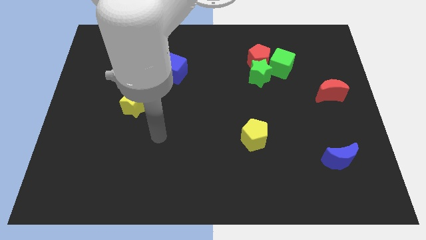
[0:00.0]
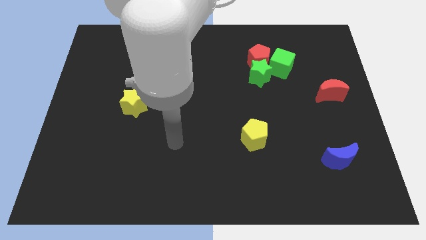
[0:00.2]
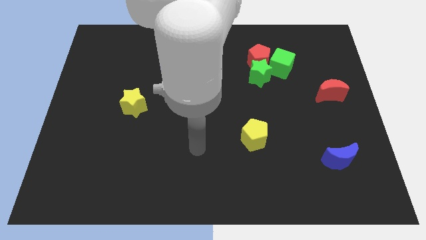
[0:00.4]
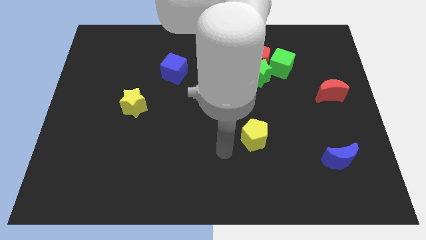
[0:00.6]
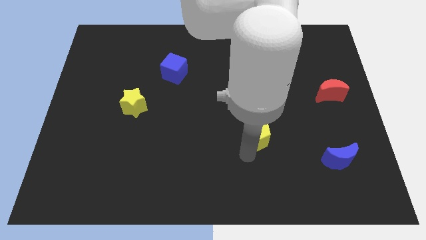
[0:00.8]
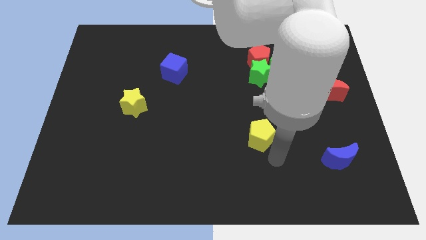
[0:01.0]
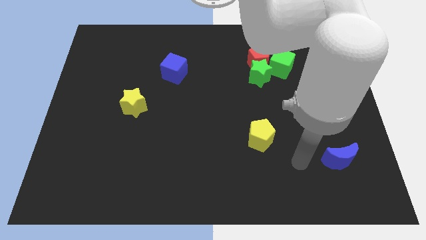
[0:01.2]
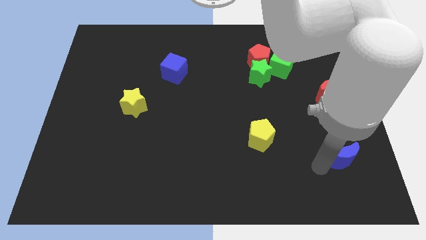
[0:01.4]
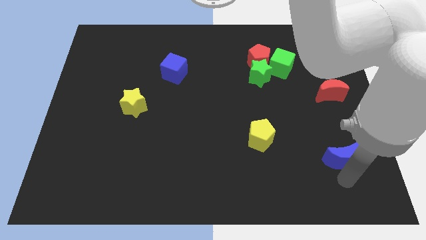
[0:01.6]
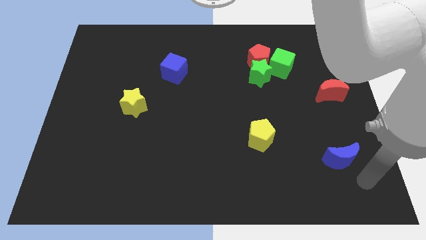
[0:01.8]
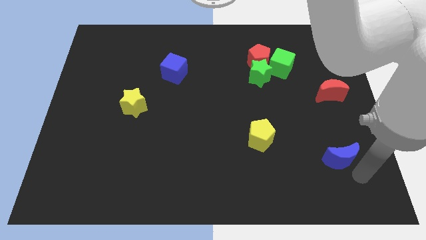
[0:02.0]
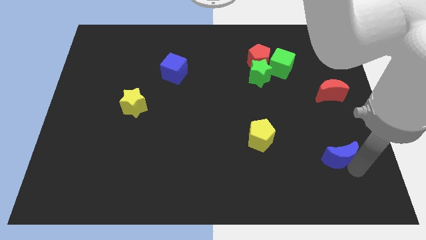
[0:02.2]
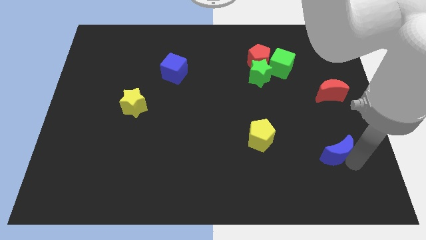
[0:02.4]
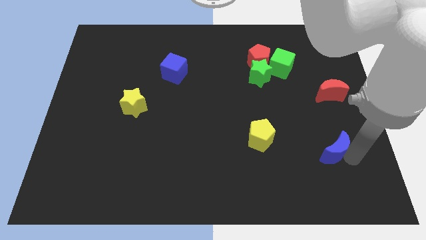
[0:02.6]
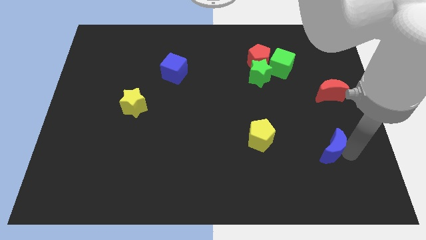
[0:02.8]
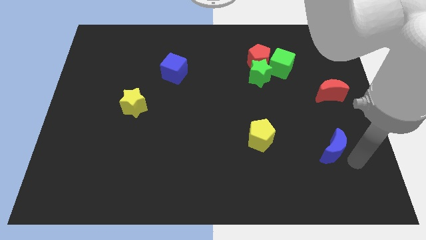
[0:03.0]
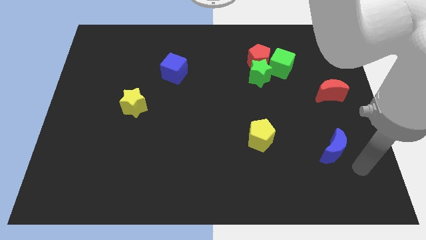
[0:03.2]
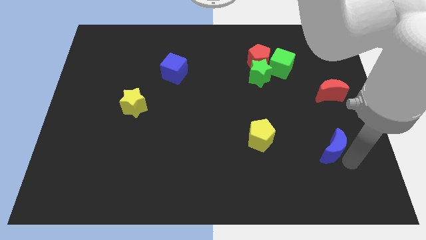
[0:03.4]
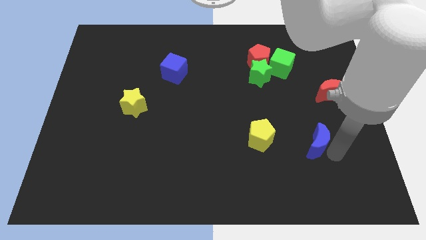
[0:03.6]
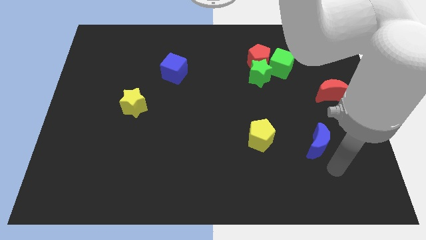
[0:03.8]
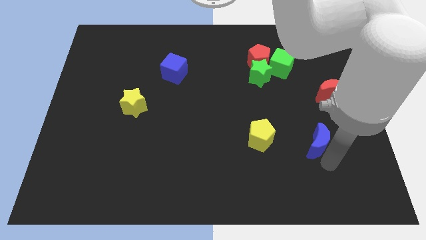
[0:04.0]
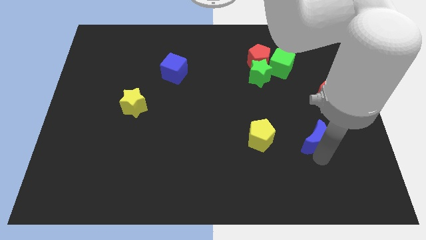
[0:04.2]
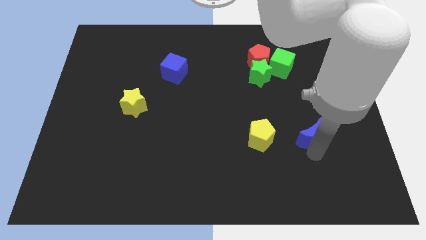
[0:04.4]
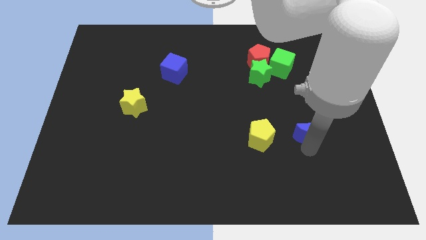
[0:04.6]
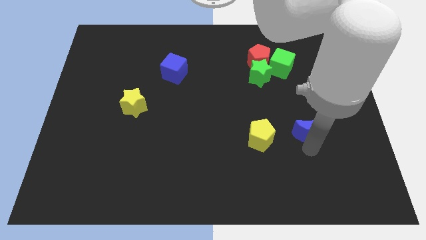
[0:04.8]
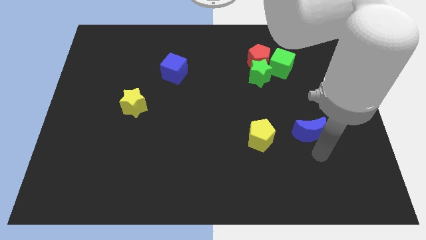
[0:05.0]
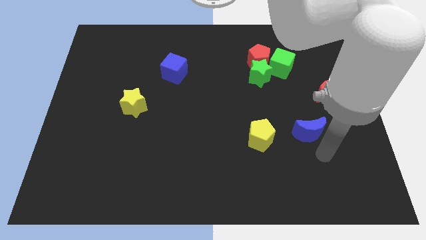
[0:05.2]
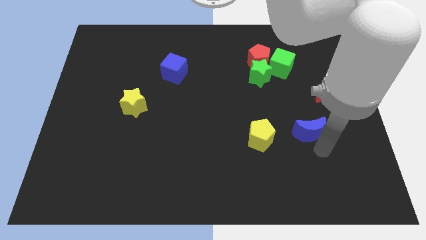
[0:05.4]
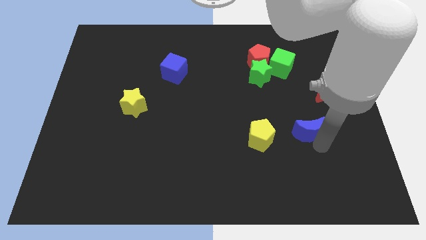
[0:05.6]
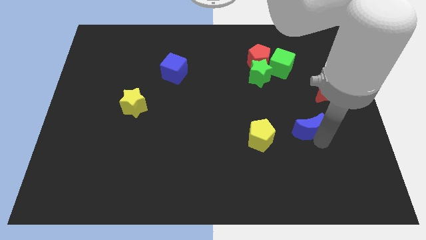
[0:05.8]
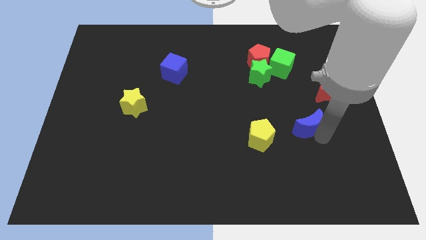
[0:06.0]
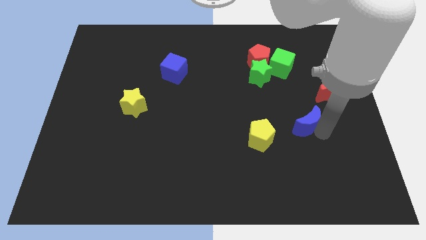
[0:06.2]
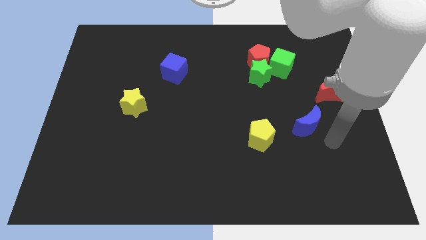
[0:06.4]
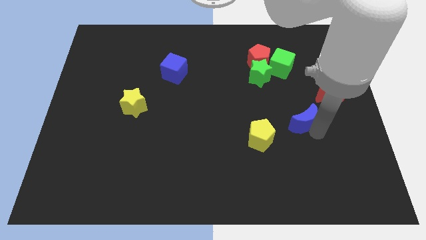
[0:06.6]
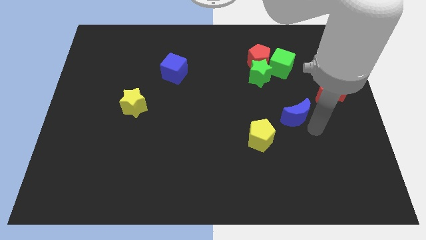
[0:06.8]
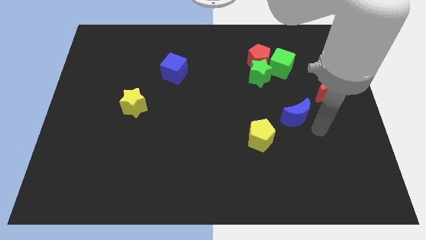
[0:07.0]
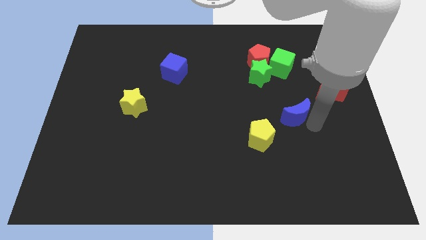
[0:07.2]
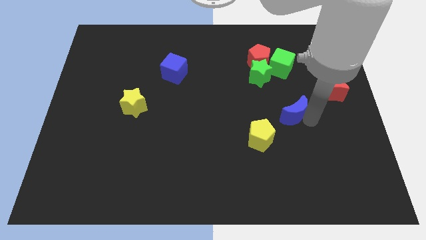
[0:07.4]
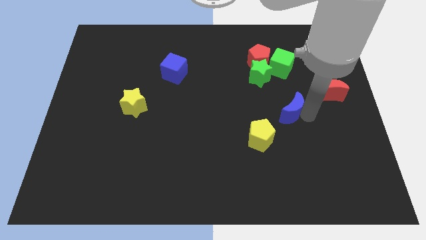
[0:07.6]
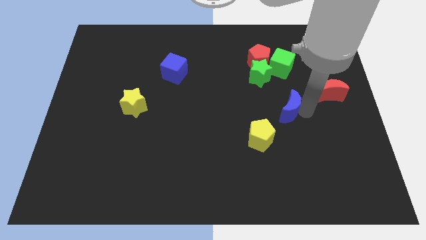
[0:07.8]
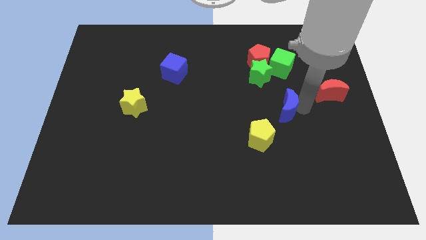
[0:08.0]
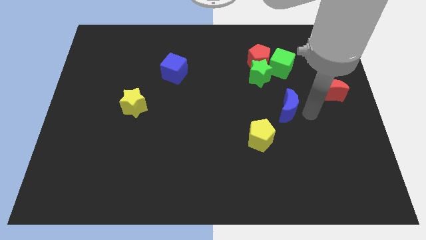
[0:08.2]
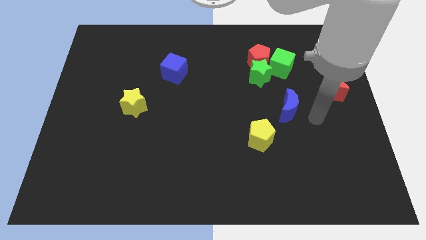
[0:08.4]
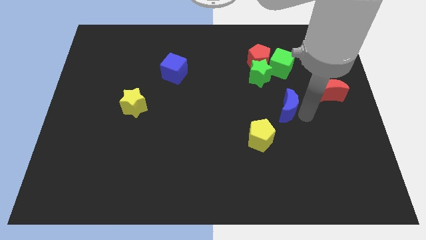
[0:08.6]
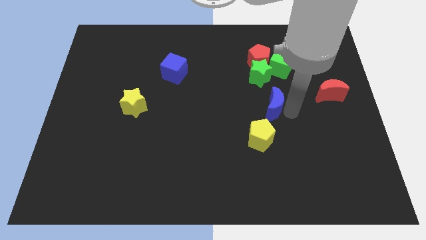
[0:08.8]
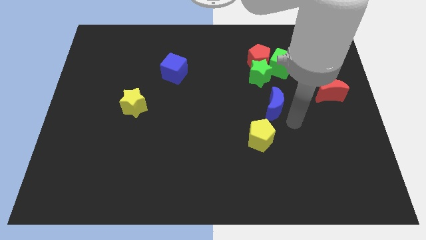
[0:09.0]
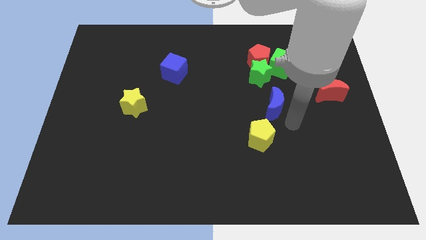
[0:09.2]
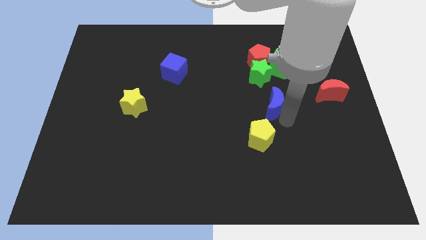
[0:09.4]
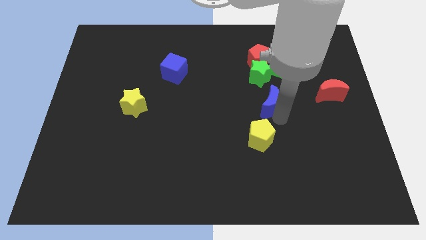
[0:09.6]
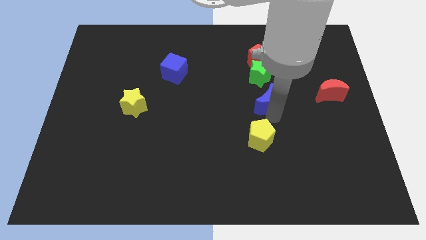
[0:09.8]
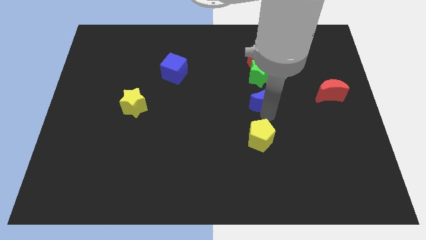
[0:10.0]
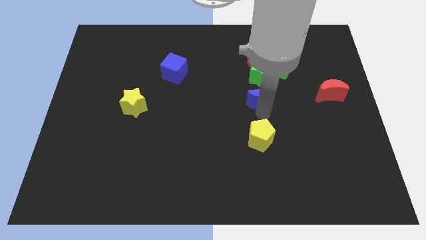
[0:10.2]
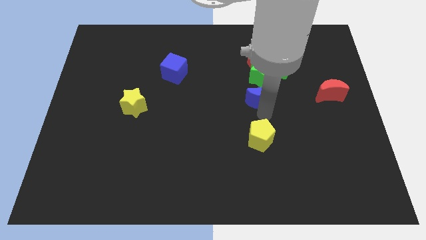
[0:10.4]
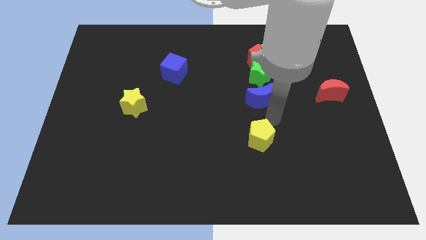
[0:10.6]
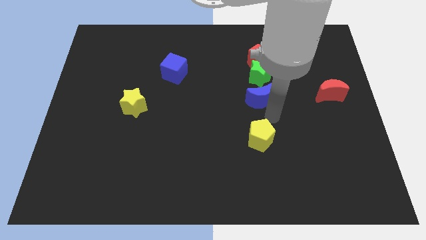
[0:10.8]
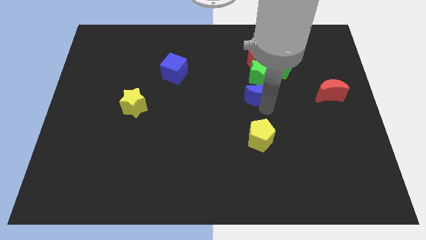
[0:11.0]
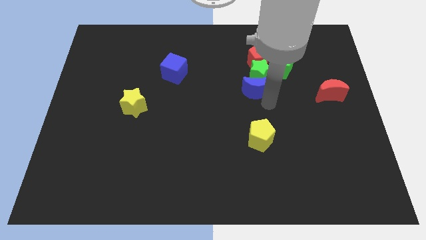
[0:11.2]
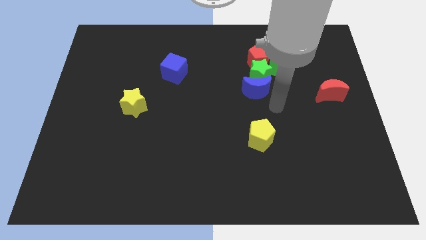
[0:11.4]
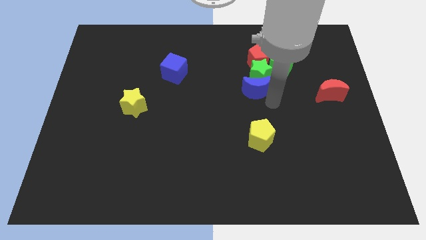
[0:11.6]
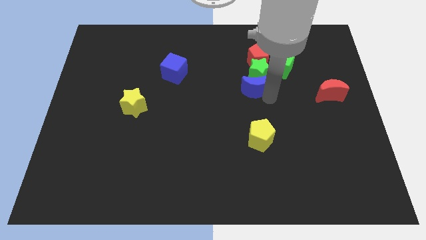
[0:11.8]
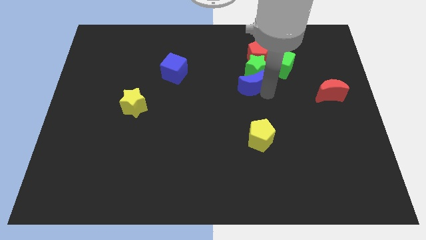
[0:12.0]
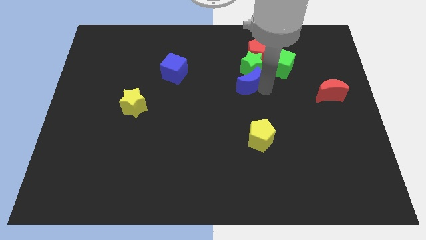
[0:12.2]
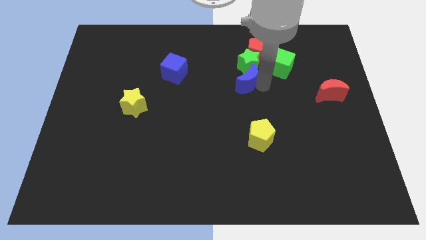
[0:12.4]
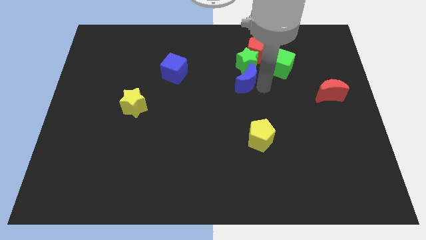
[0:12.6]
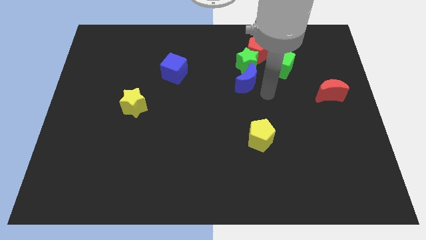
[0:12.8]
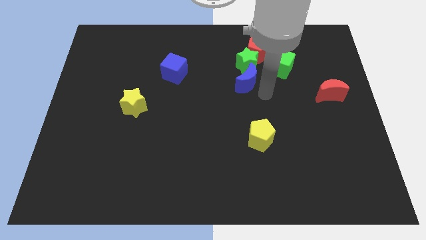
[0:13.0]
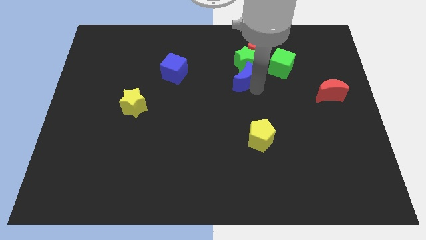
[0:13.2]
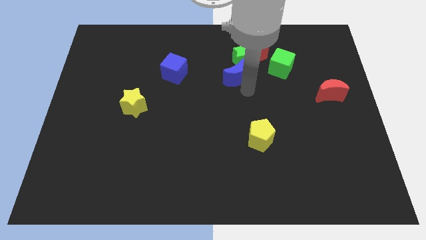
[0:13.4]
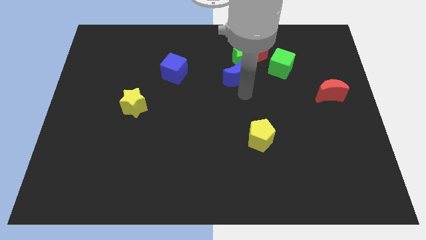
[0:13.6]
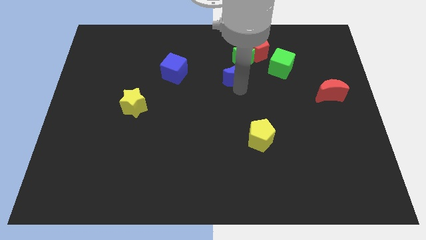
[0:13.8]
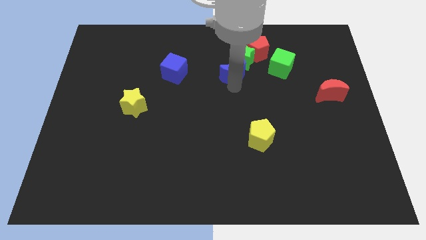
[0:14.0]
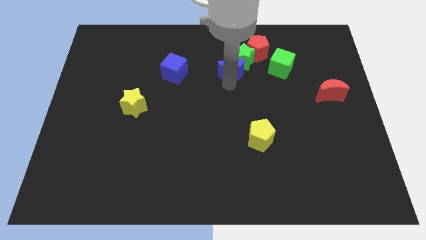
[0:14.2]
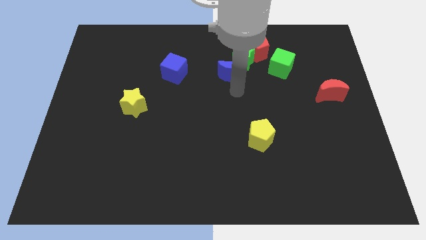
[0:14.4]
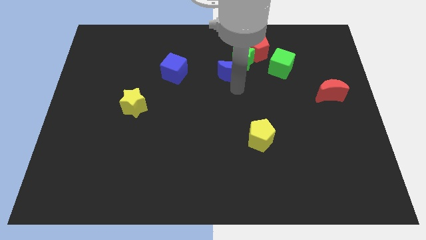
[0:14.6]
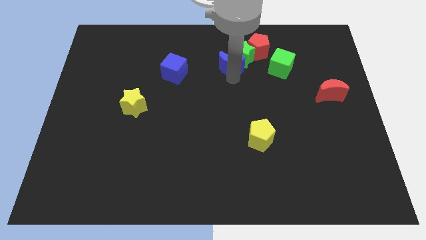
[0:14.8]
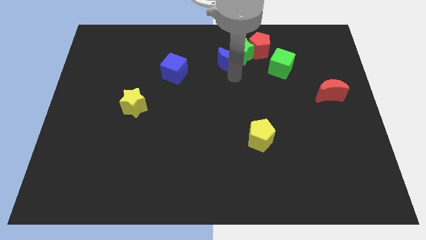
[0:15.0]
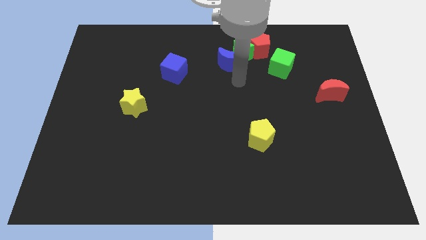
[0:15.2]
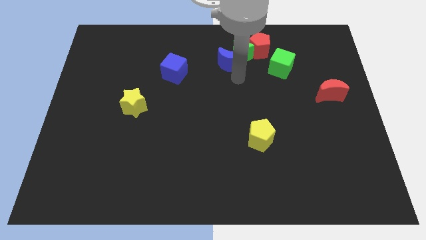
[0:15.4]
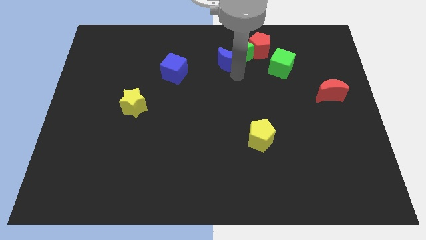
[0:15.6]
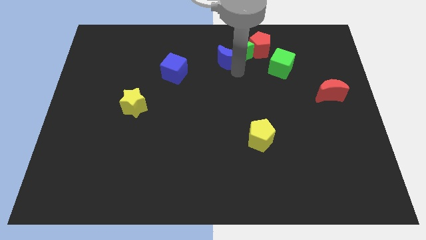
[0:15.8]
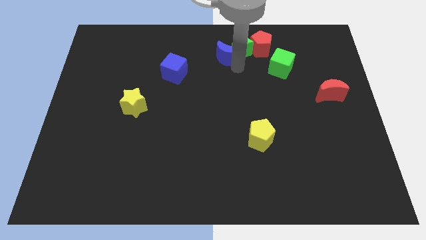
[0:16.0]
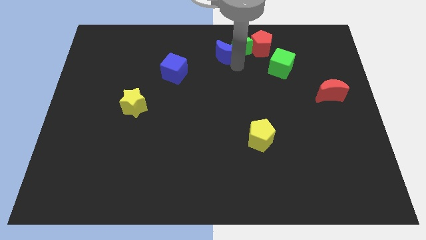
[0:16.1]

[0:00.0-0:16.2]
put the blue moon to the top
